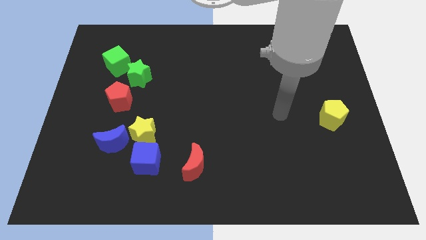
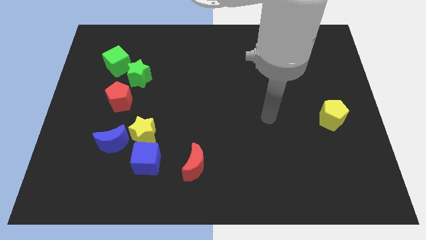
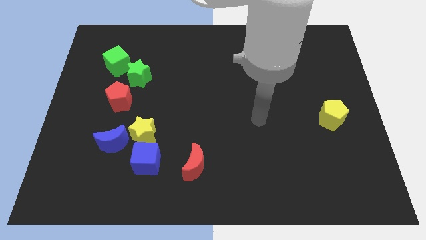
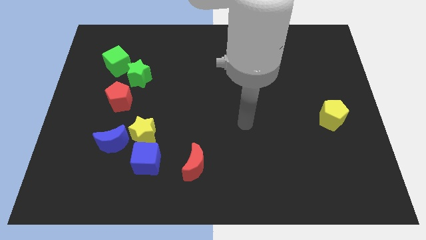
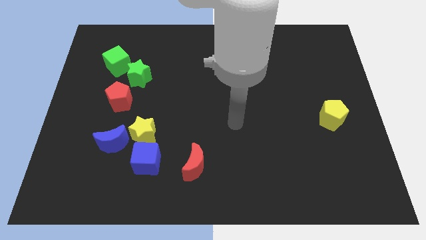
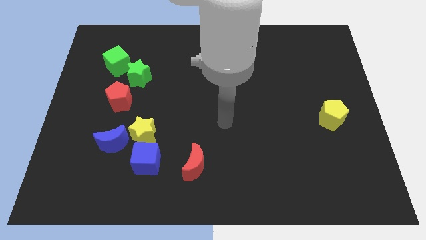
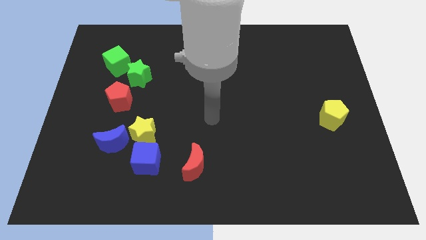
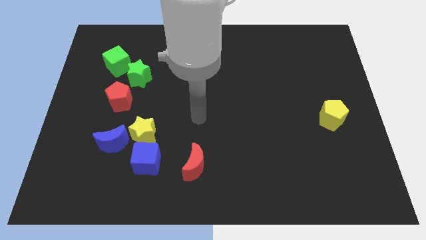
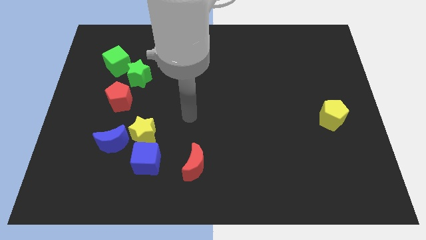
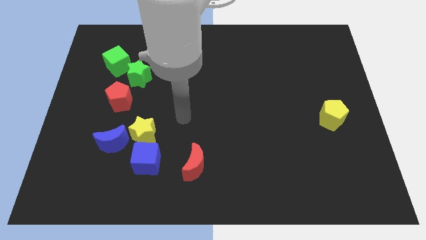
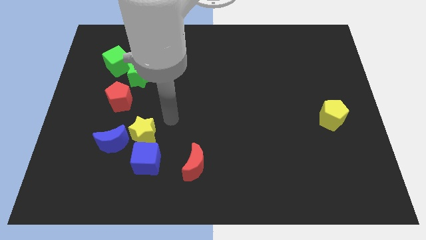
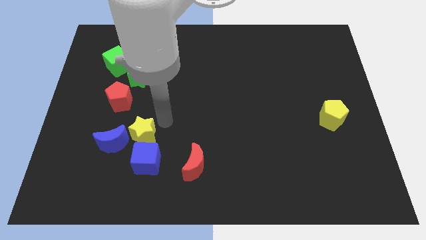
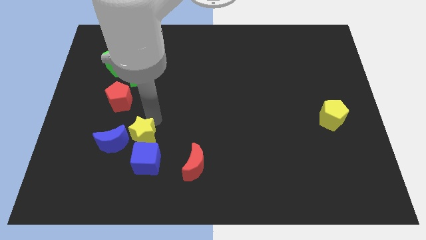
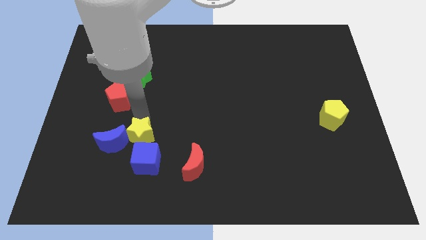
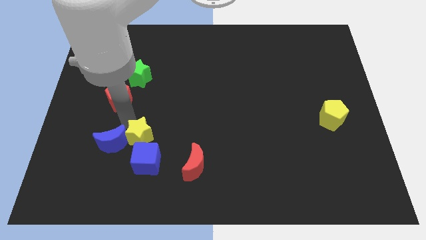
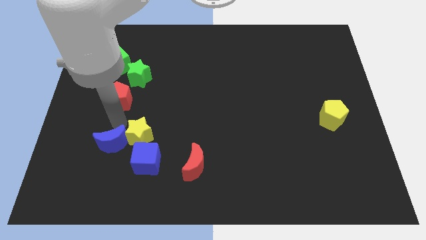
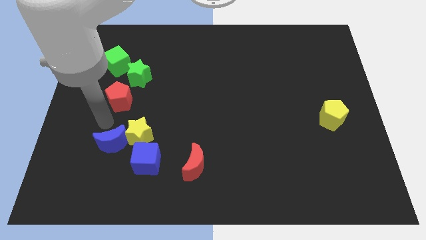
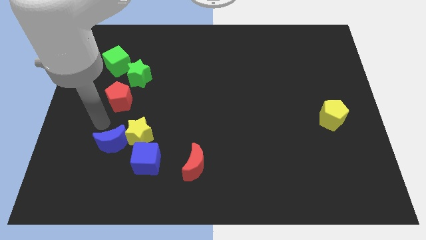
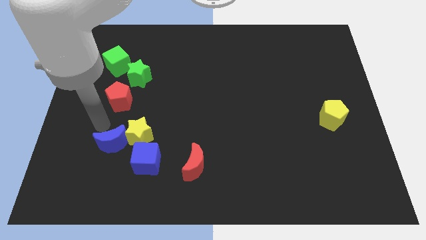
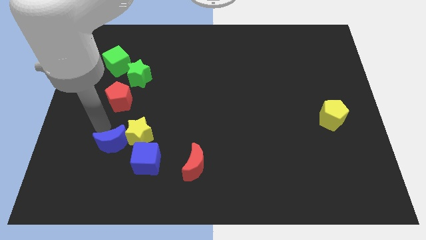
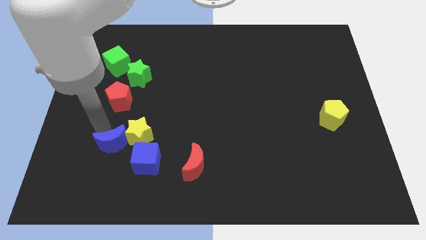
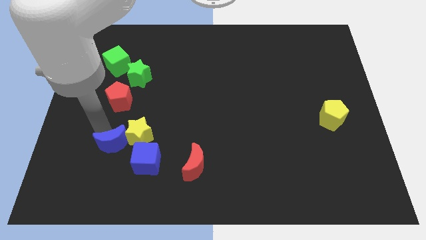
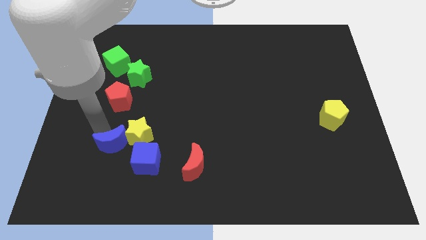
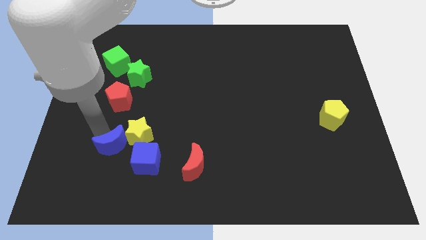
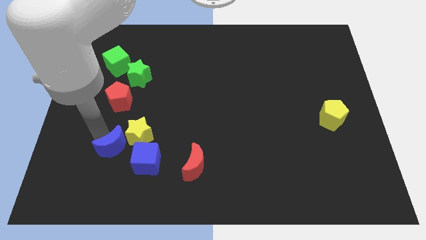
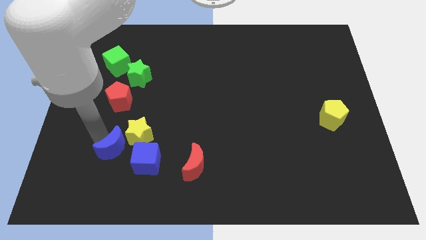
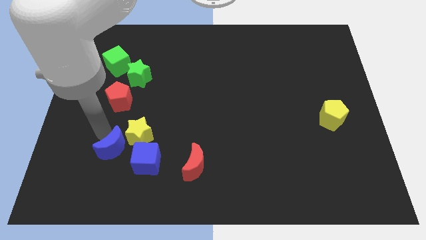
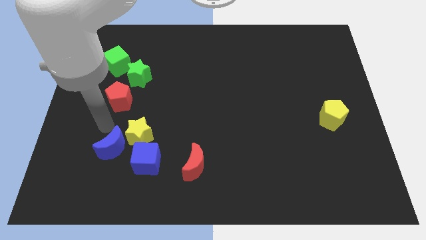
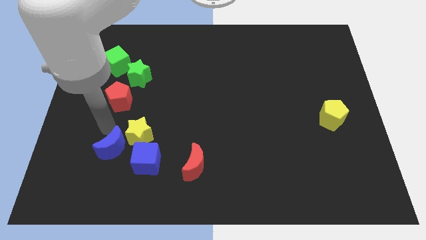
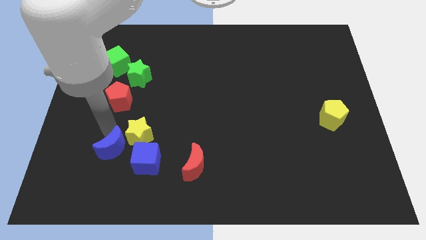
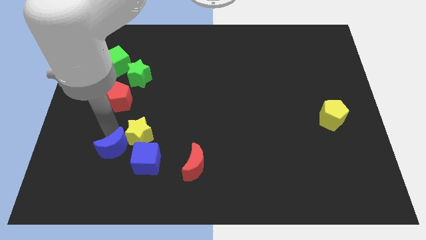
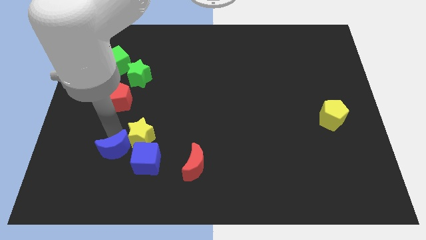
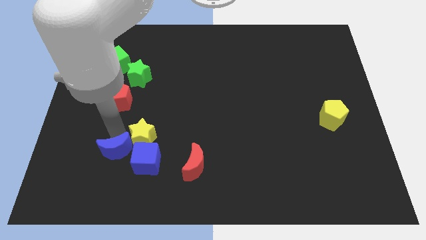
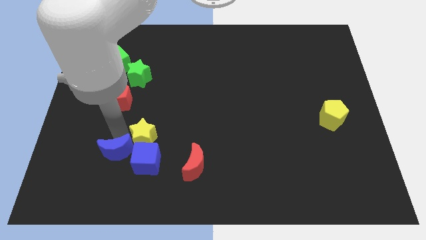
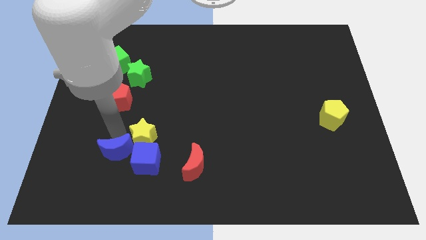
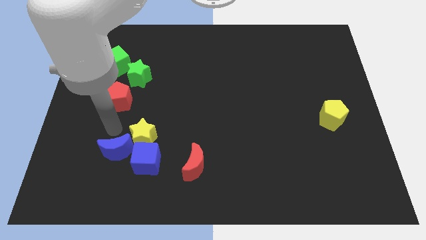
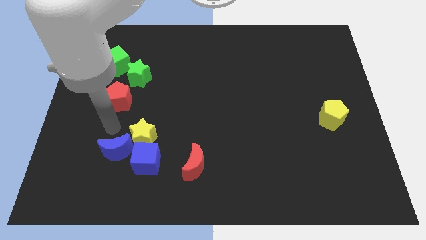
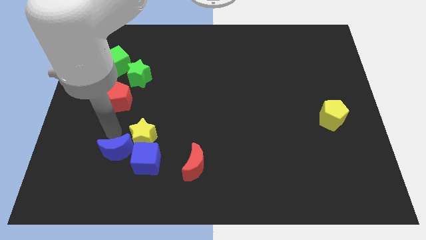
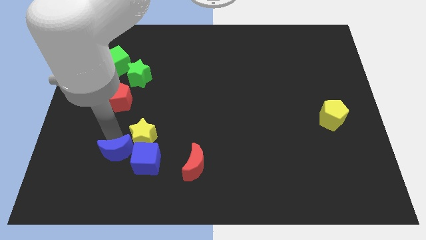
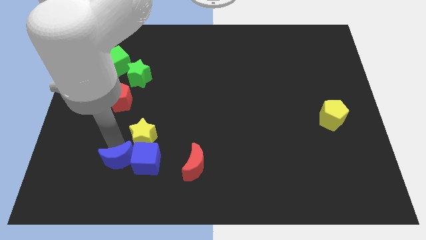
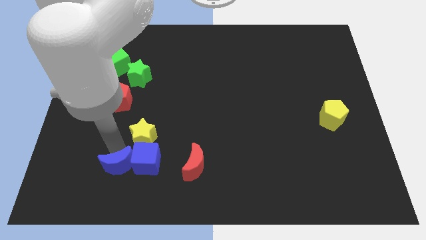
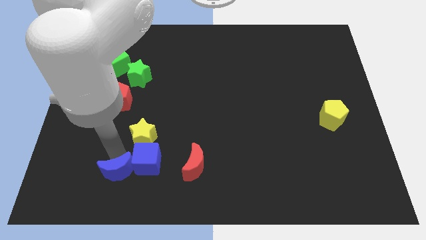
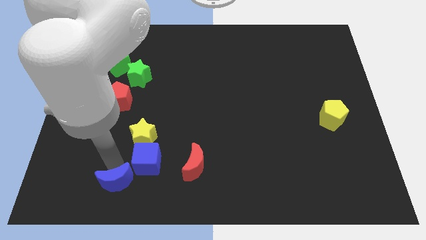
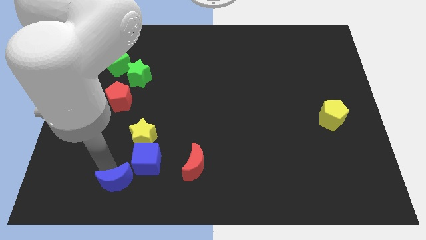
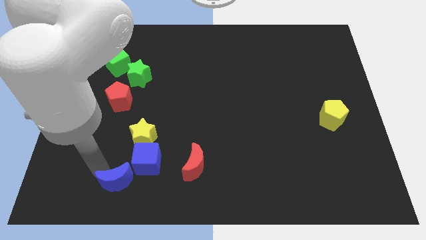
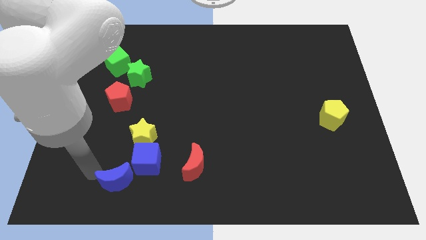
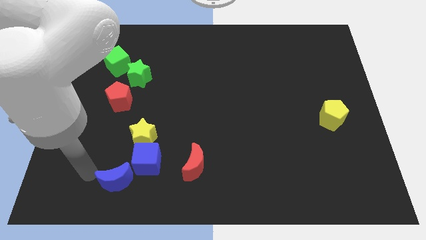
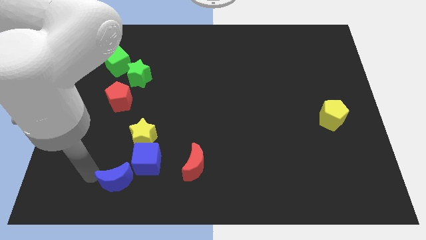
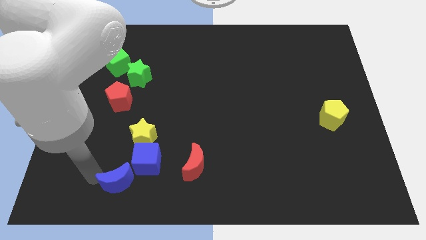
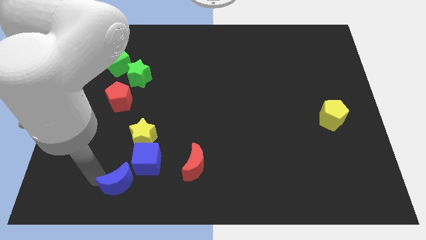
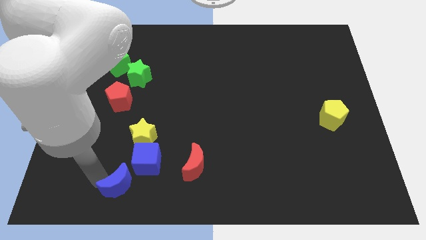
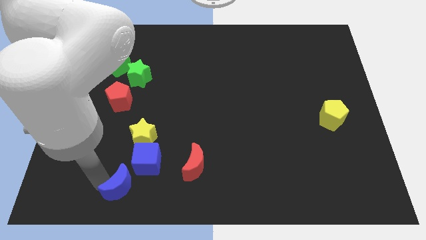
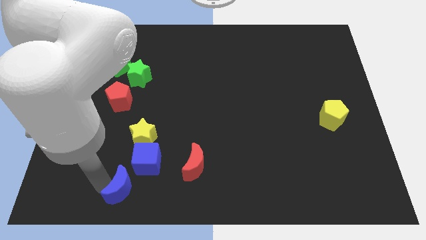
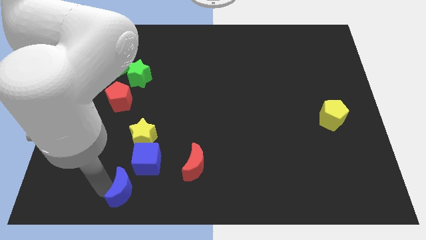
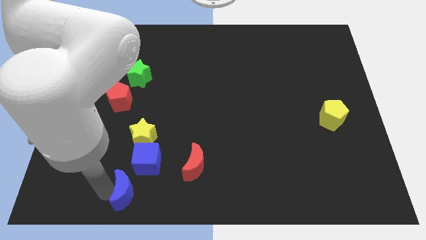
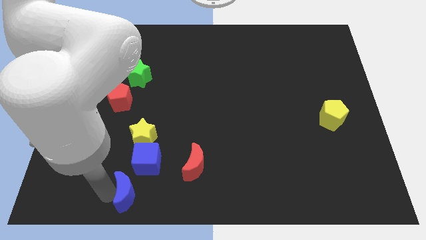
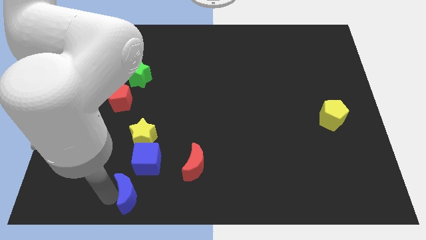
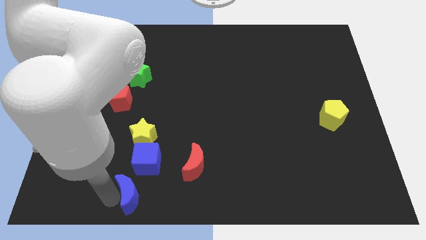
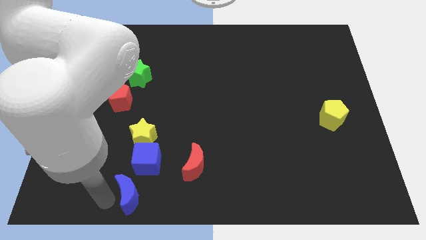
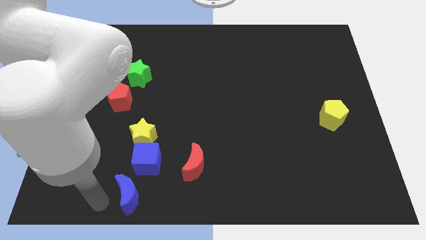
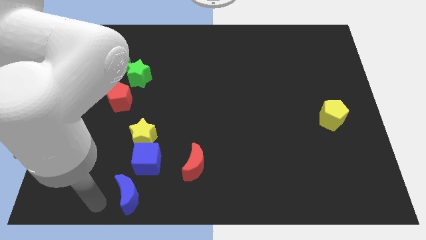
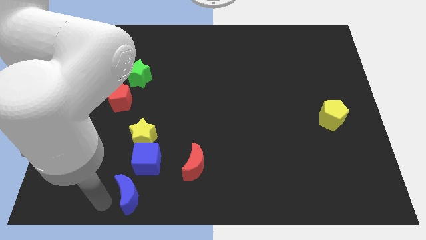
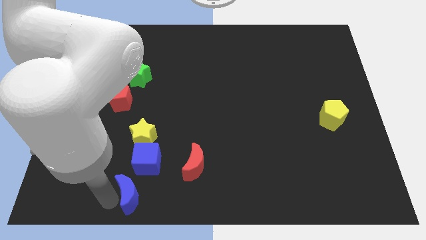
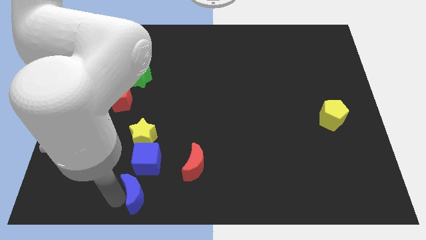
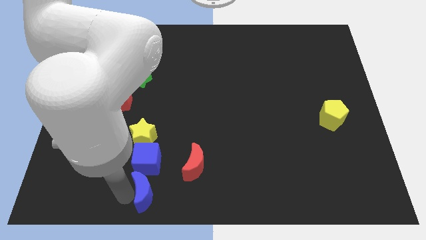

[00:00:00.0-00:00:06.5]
move the blue moon to the bottom
